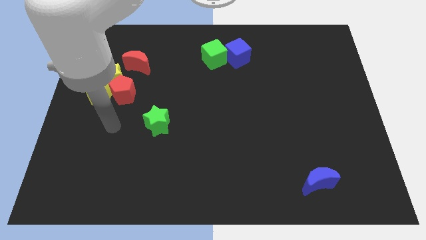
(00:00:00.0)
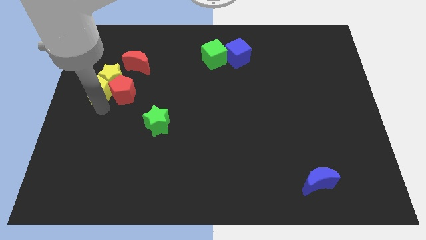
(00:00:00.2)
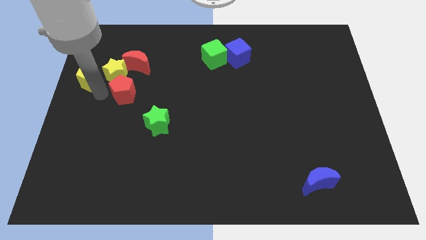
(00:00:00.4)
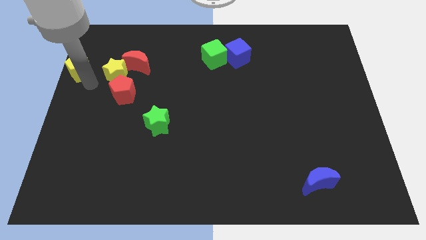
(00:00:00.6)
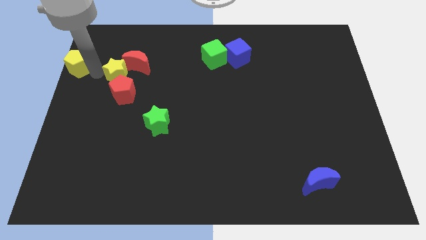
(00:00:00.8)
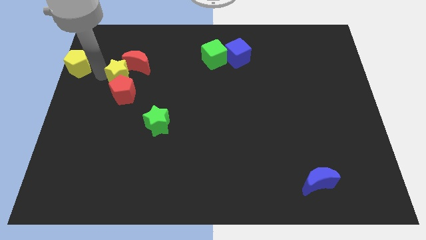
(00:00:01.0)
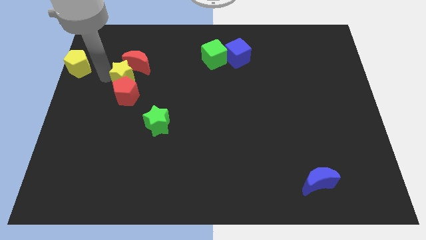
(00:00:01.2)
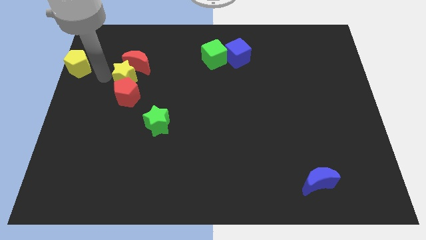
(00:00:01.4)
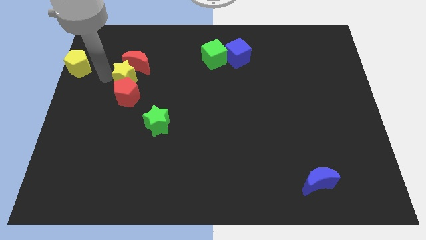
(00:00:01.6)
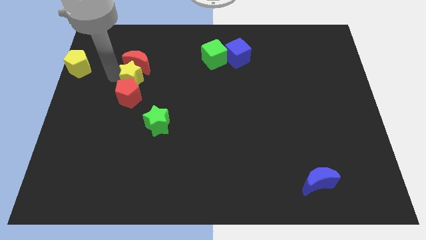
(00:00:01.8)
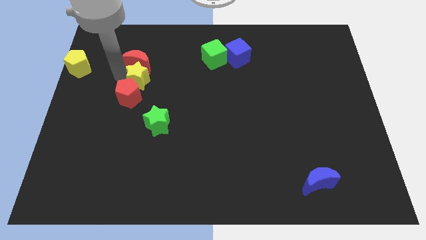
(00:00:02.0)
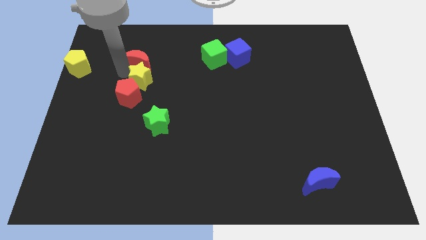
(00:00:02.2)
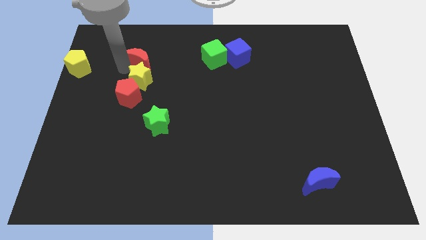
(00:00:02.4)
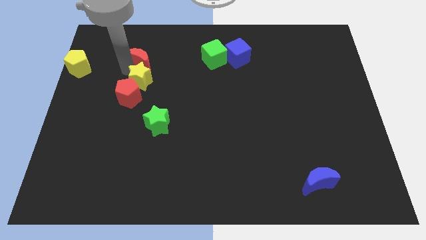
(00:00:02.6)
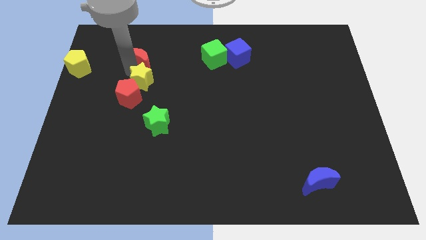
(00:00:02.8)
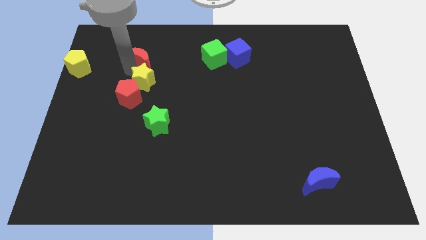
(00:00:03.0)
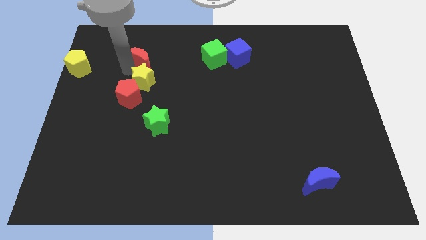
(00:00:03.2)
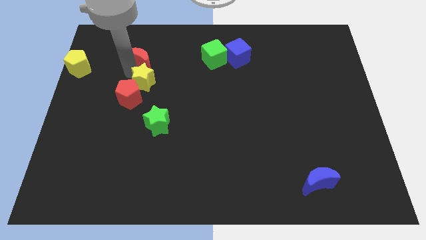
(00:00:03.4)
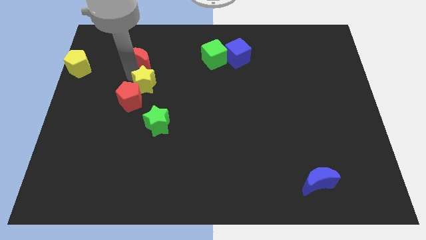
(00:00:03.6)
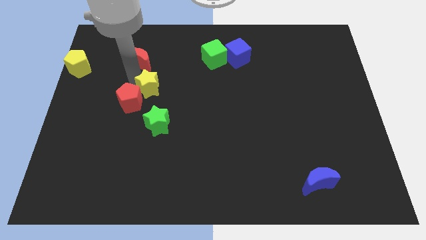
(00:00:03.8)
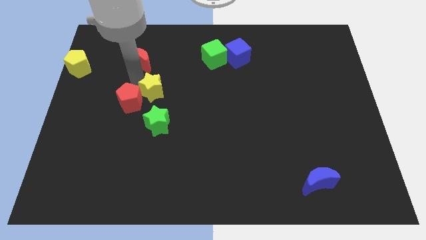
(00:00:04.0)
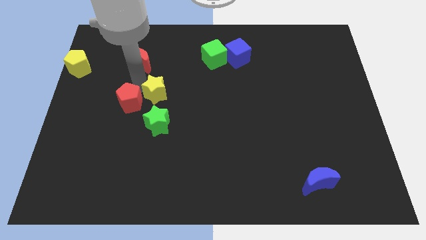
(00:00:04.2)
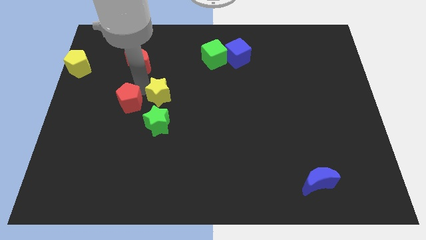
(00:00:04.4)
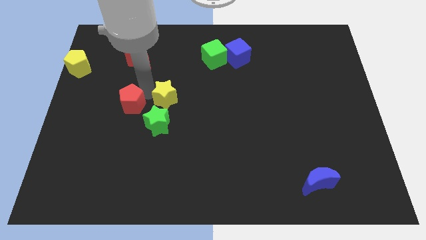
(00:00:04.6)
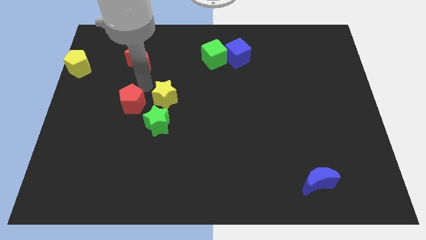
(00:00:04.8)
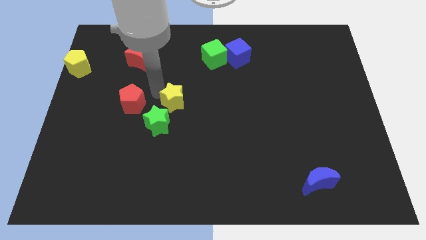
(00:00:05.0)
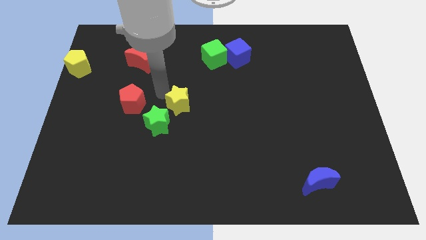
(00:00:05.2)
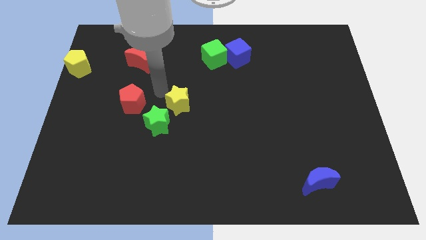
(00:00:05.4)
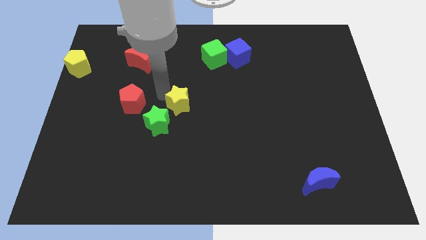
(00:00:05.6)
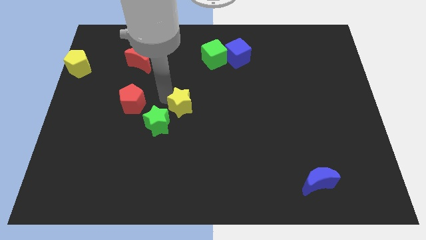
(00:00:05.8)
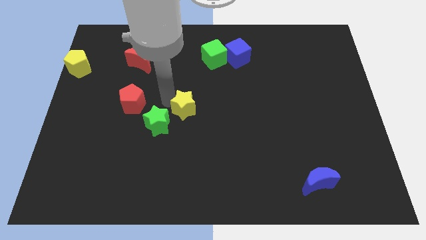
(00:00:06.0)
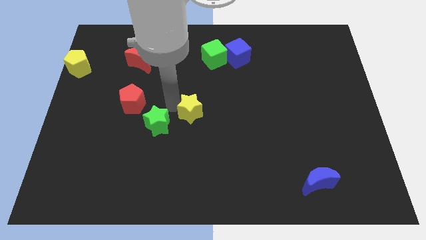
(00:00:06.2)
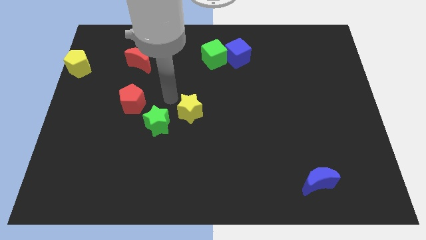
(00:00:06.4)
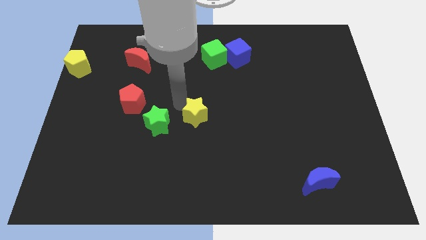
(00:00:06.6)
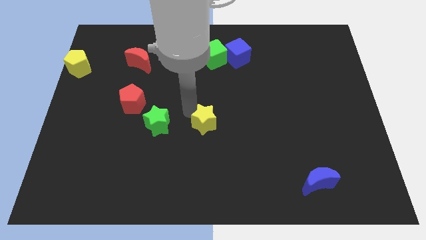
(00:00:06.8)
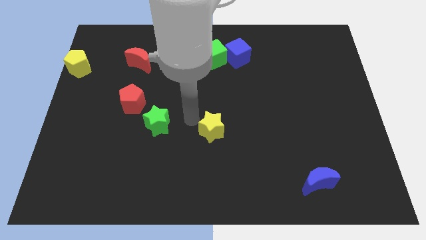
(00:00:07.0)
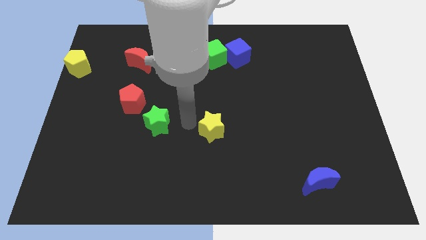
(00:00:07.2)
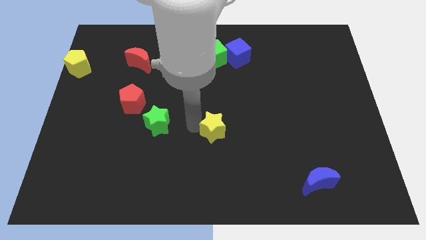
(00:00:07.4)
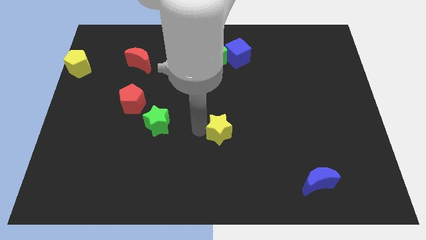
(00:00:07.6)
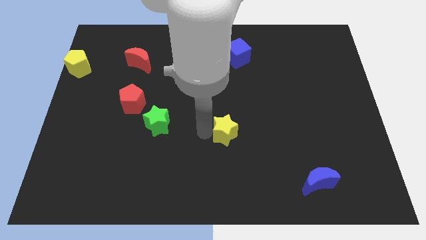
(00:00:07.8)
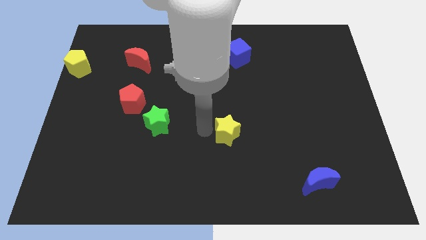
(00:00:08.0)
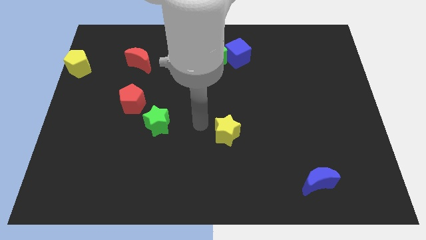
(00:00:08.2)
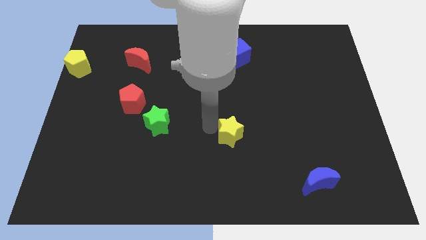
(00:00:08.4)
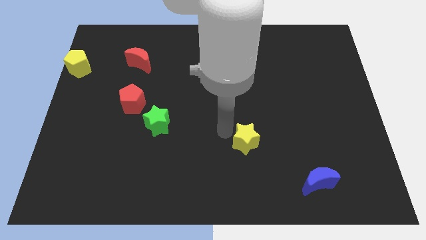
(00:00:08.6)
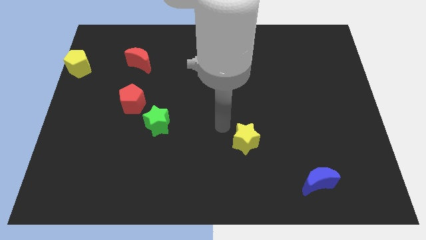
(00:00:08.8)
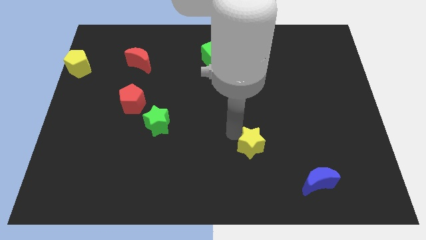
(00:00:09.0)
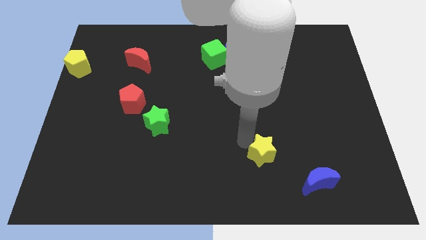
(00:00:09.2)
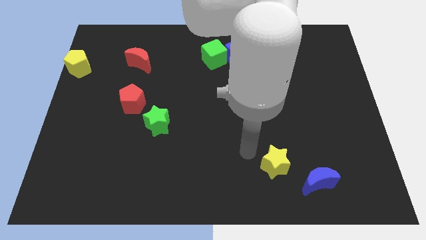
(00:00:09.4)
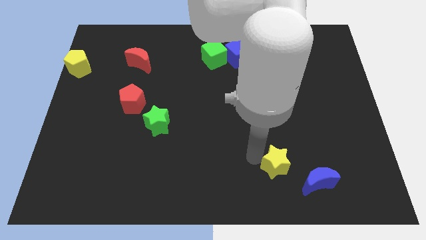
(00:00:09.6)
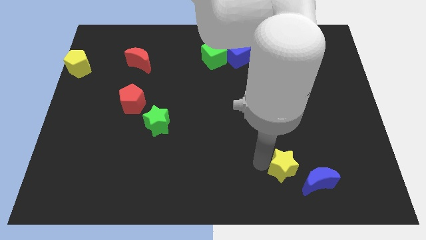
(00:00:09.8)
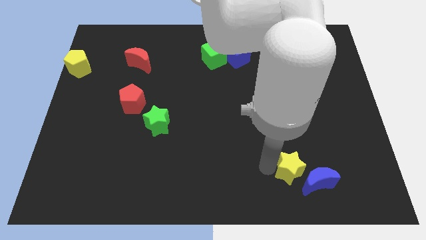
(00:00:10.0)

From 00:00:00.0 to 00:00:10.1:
push the yellow star next to the blue moon

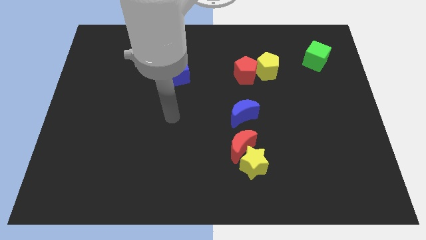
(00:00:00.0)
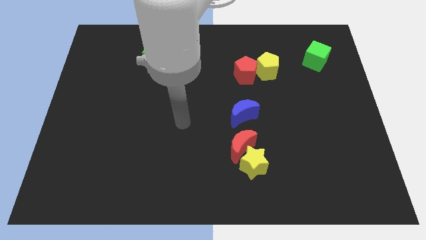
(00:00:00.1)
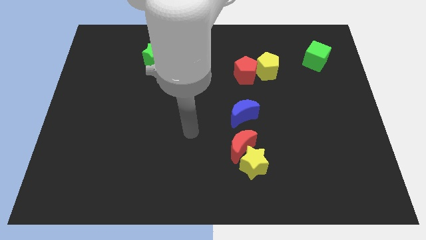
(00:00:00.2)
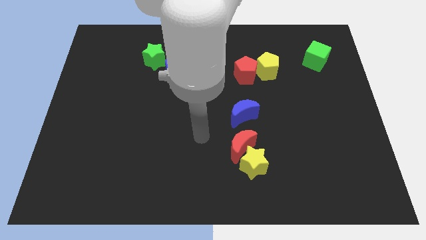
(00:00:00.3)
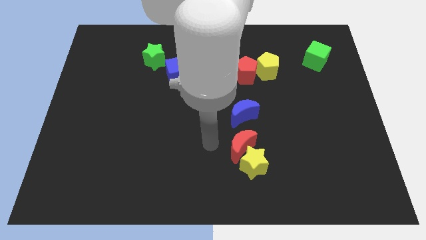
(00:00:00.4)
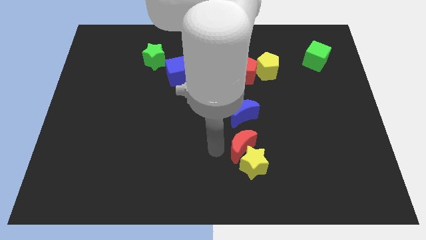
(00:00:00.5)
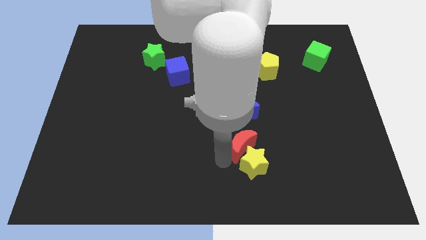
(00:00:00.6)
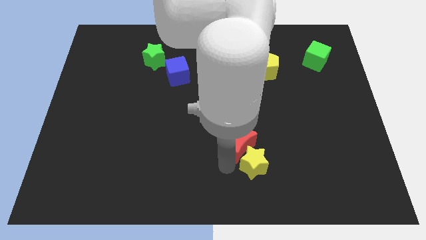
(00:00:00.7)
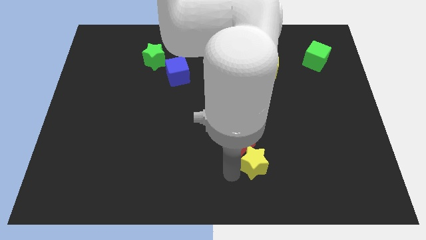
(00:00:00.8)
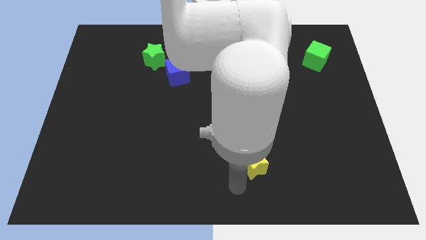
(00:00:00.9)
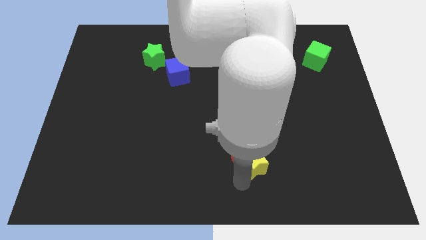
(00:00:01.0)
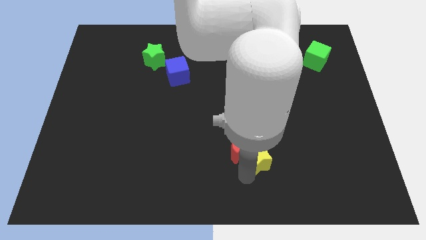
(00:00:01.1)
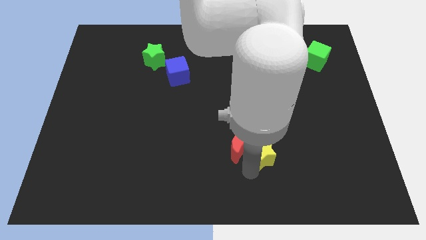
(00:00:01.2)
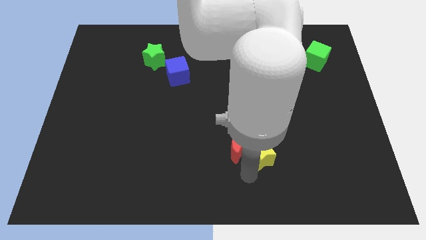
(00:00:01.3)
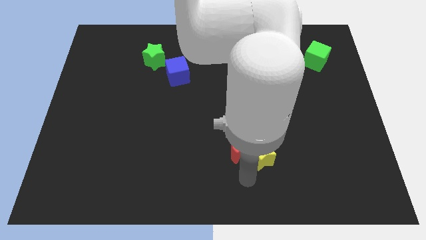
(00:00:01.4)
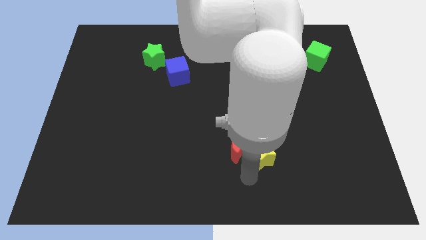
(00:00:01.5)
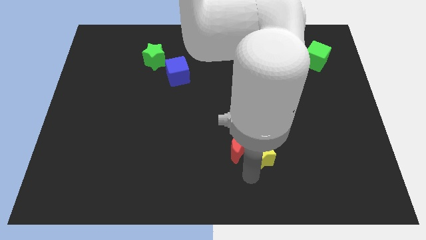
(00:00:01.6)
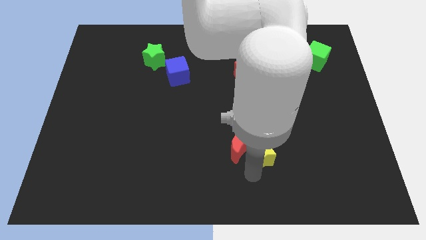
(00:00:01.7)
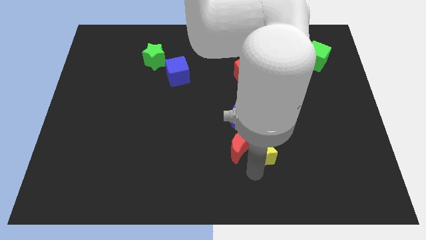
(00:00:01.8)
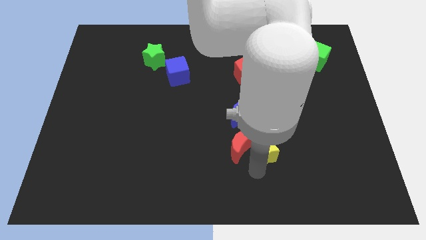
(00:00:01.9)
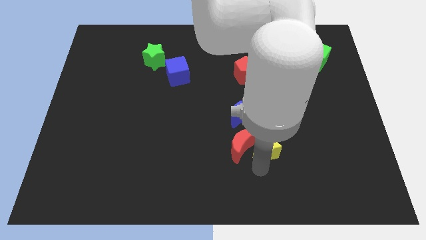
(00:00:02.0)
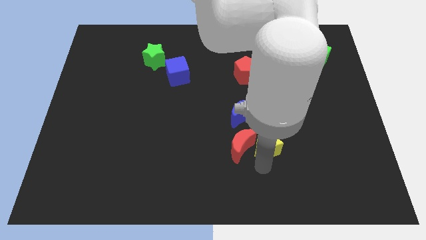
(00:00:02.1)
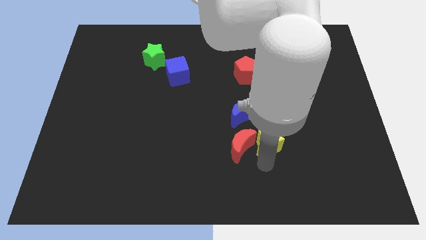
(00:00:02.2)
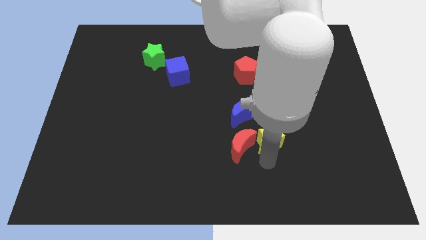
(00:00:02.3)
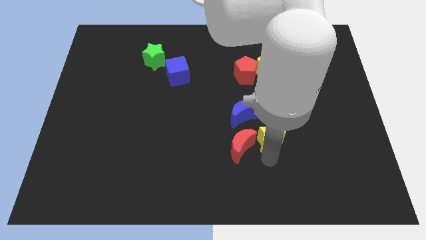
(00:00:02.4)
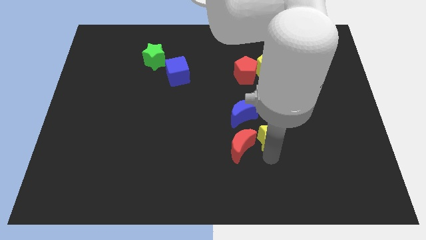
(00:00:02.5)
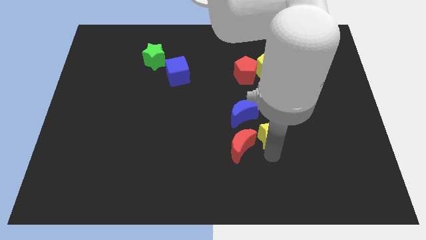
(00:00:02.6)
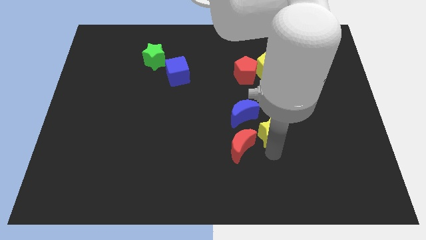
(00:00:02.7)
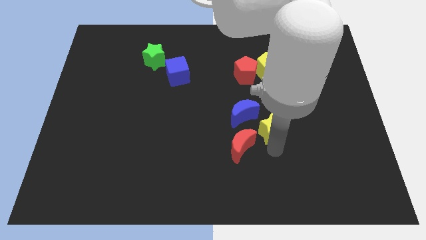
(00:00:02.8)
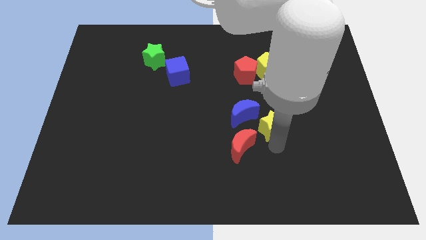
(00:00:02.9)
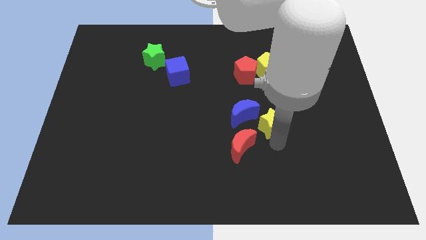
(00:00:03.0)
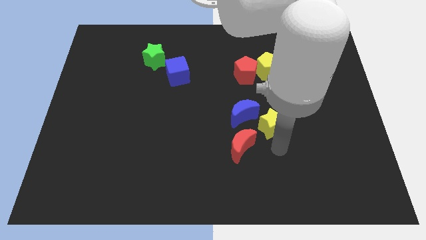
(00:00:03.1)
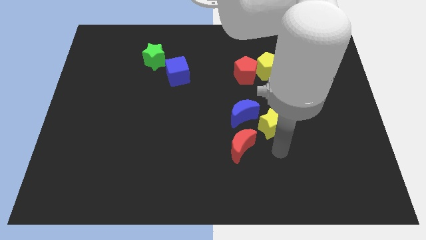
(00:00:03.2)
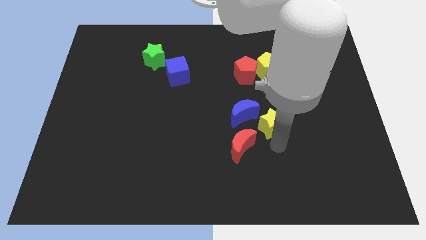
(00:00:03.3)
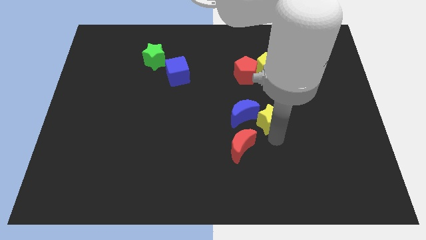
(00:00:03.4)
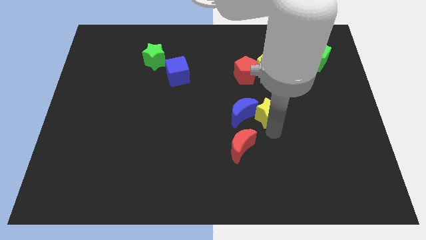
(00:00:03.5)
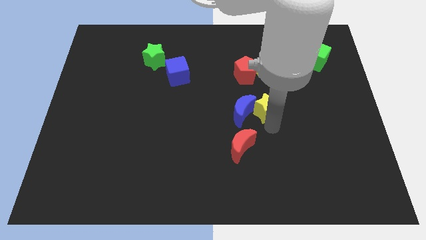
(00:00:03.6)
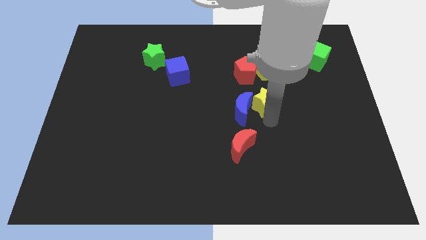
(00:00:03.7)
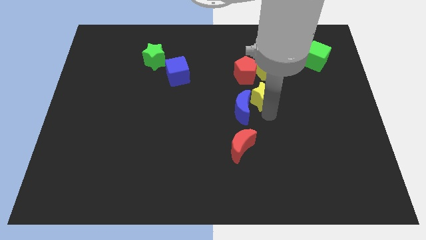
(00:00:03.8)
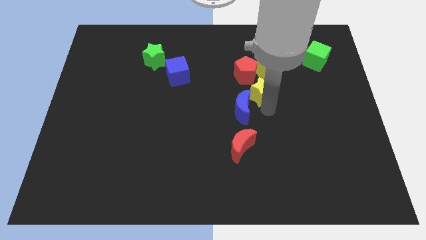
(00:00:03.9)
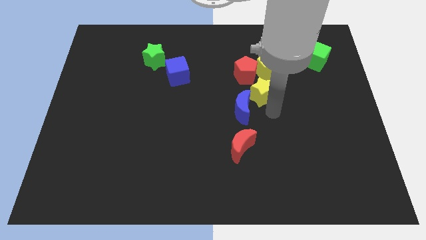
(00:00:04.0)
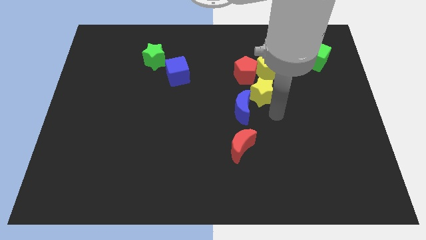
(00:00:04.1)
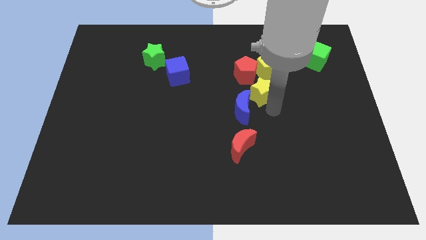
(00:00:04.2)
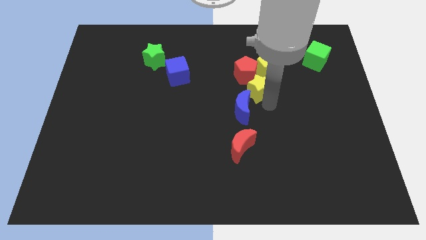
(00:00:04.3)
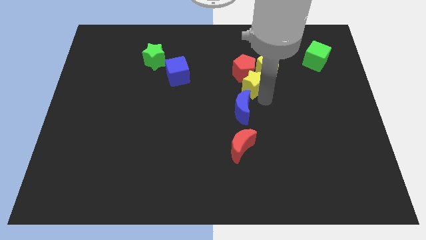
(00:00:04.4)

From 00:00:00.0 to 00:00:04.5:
move the yellow star to the red pentagon
